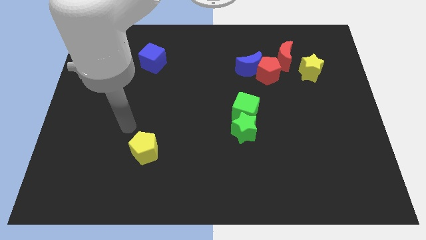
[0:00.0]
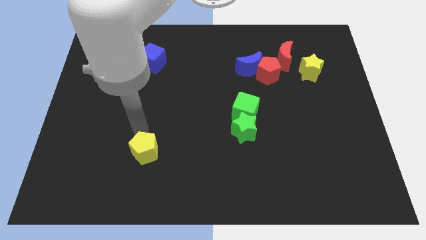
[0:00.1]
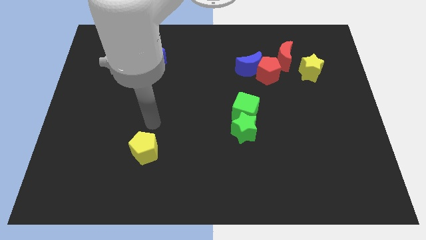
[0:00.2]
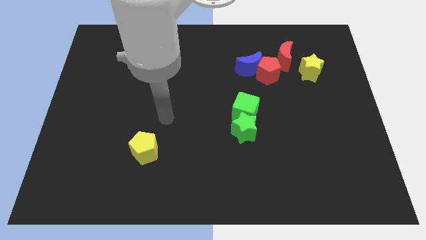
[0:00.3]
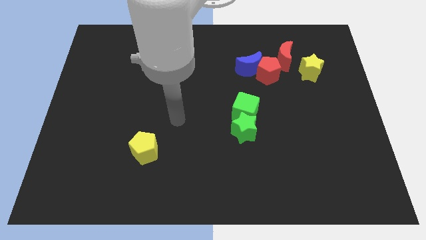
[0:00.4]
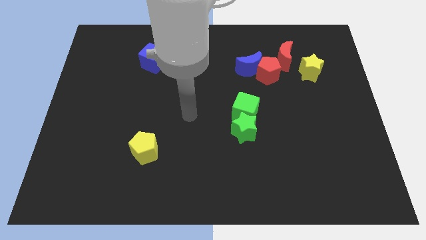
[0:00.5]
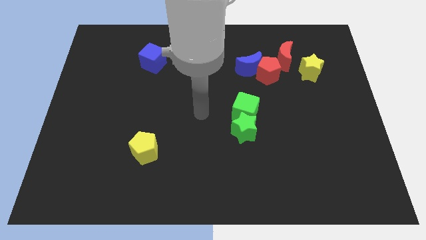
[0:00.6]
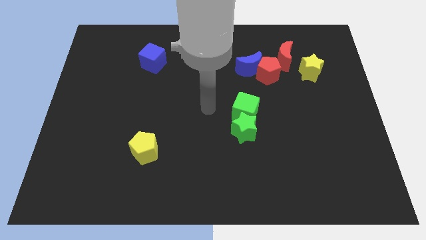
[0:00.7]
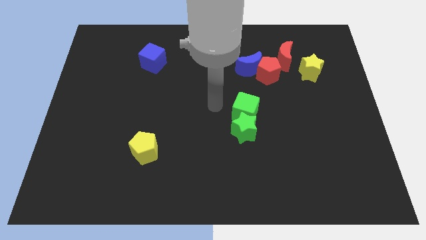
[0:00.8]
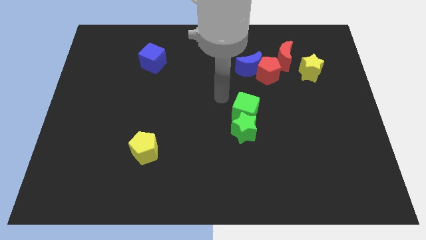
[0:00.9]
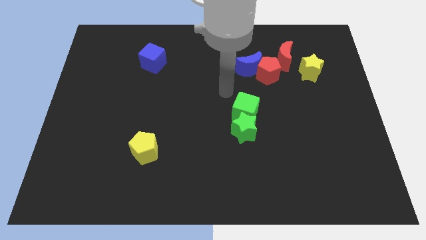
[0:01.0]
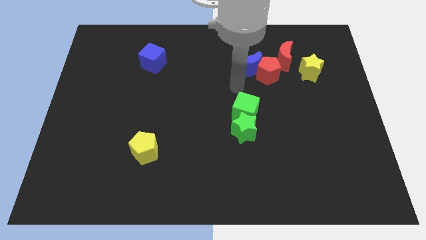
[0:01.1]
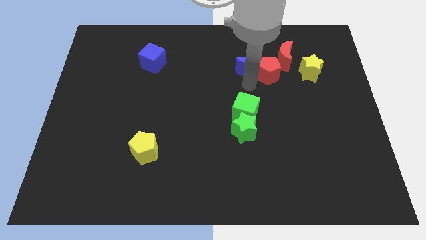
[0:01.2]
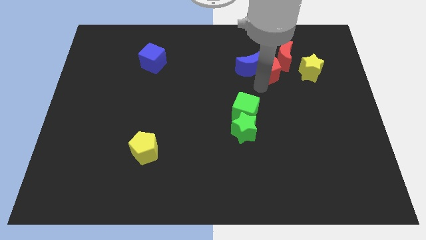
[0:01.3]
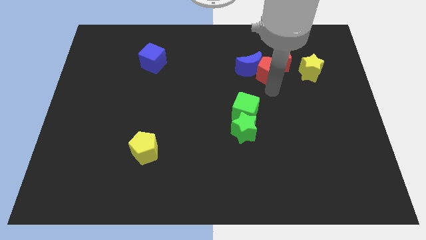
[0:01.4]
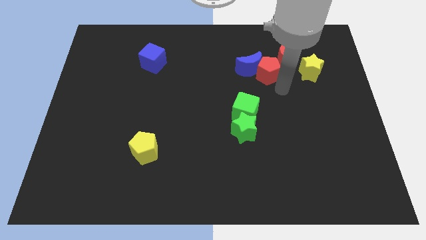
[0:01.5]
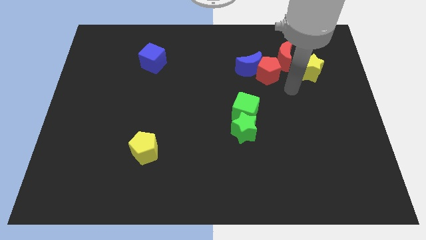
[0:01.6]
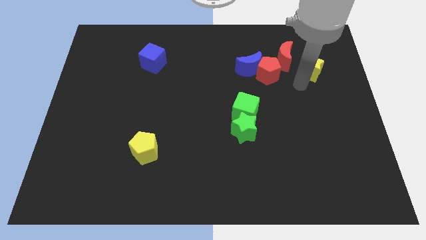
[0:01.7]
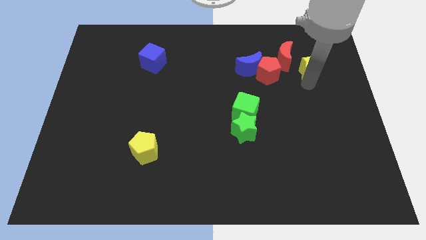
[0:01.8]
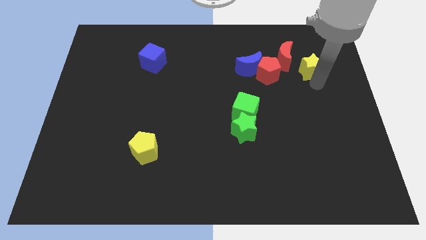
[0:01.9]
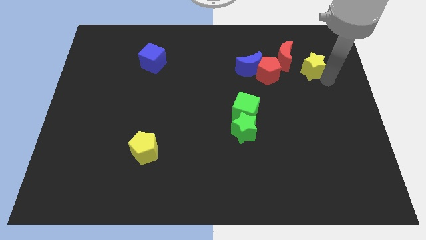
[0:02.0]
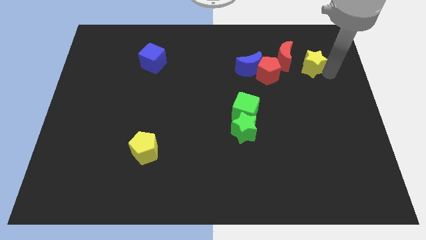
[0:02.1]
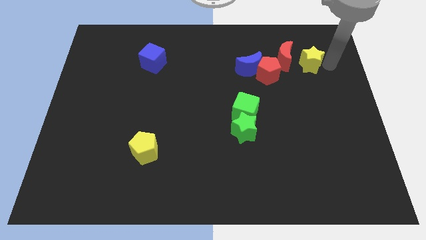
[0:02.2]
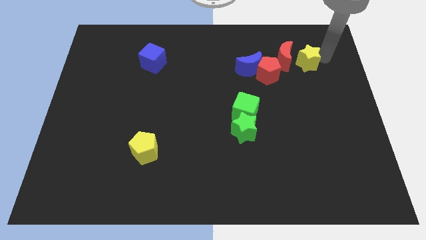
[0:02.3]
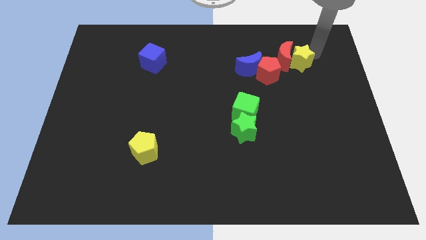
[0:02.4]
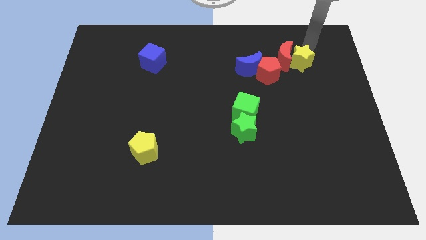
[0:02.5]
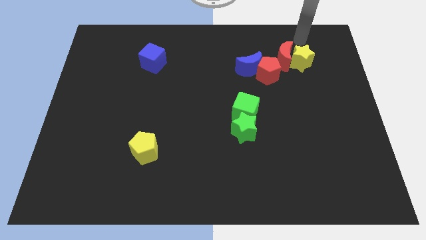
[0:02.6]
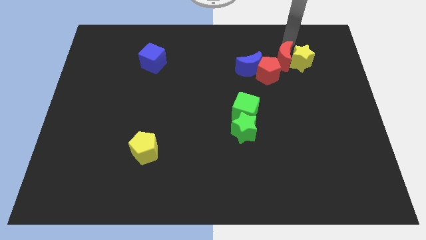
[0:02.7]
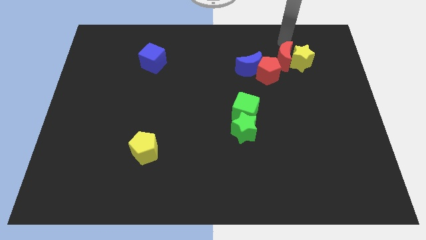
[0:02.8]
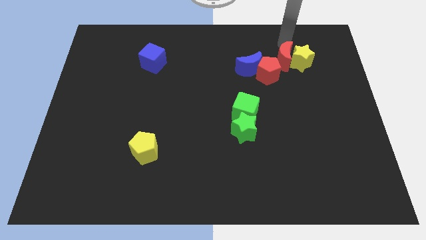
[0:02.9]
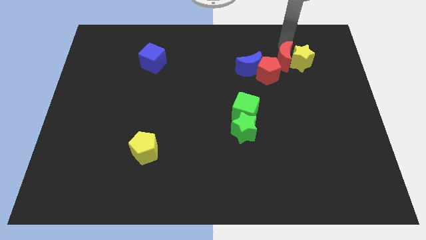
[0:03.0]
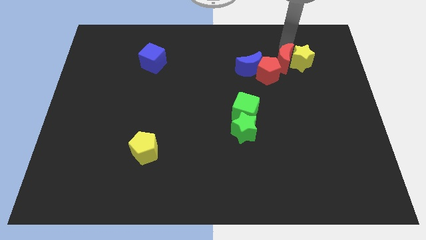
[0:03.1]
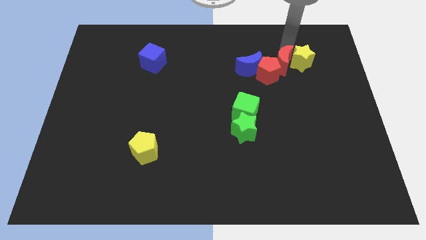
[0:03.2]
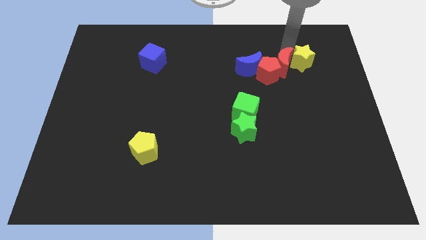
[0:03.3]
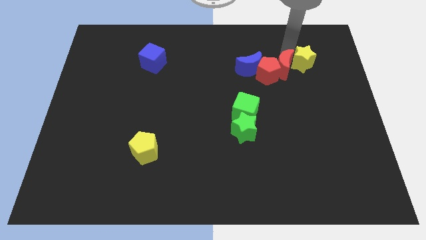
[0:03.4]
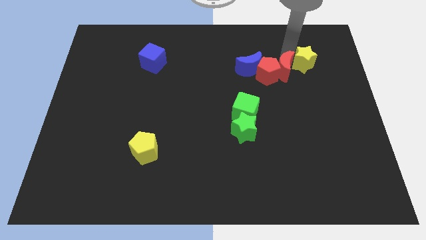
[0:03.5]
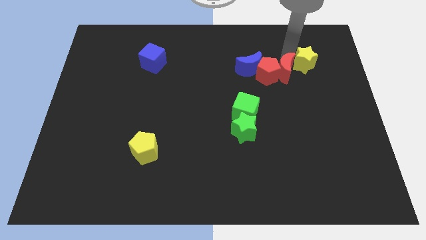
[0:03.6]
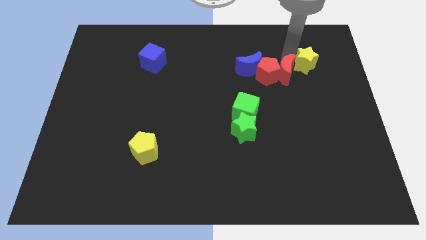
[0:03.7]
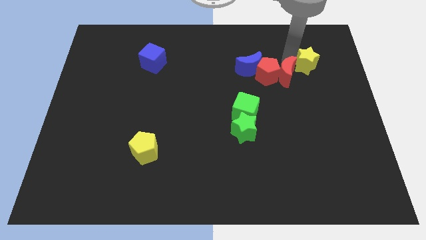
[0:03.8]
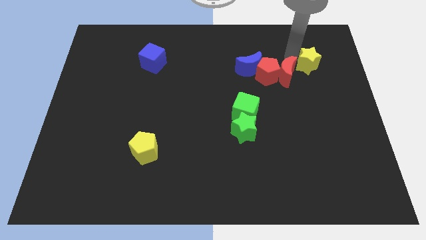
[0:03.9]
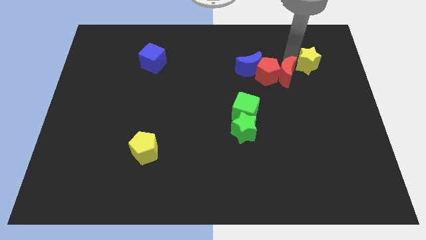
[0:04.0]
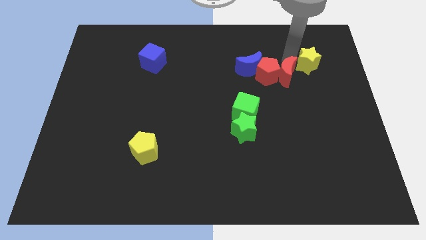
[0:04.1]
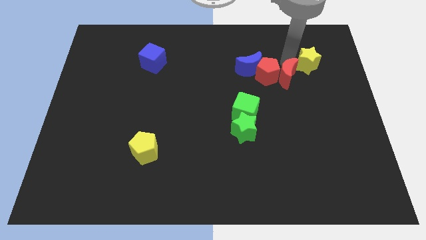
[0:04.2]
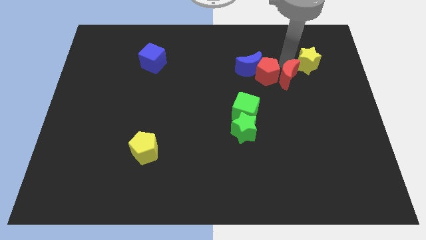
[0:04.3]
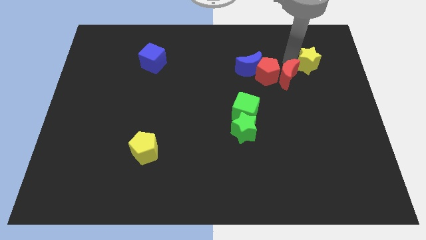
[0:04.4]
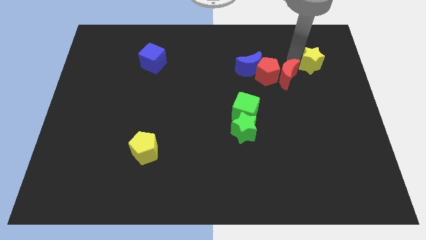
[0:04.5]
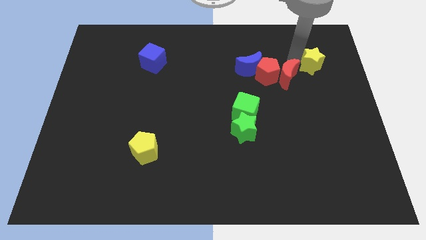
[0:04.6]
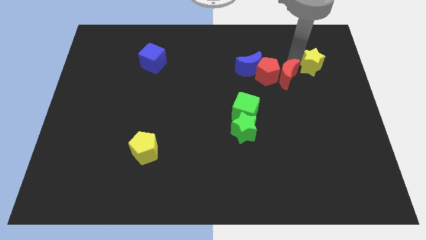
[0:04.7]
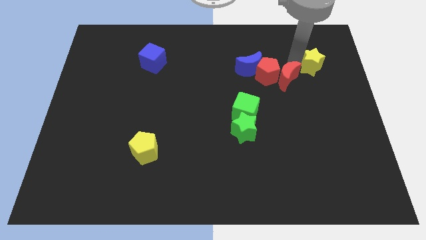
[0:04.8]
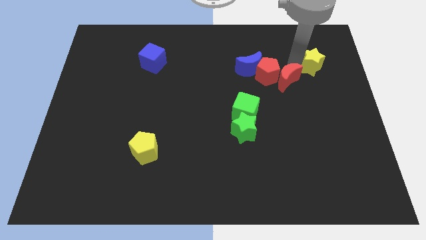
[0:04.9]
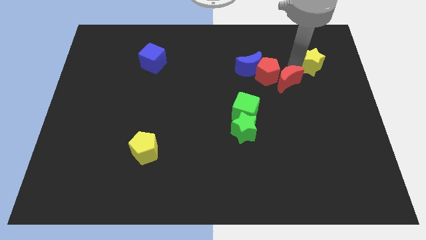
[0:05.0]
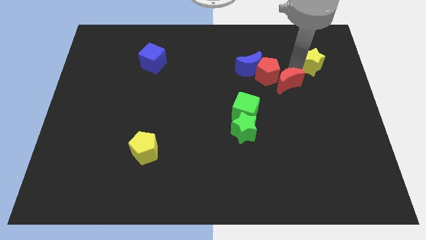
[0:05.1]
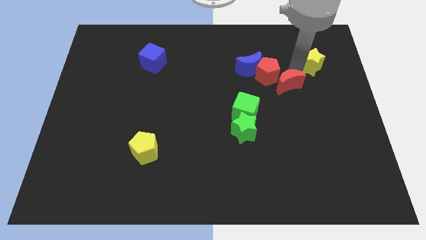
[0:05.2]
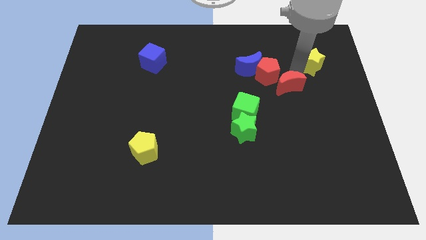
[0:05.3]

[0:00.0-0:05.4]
push the red moon to the bottom side of the red pentagon

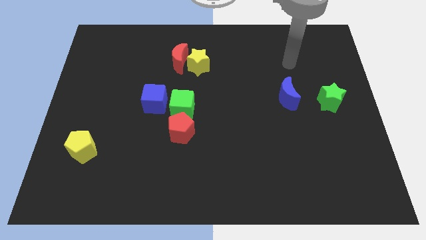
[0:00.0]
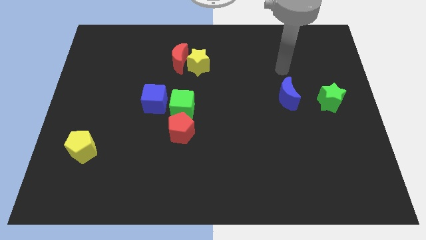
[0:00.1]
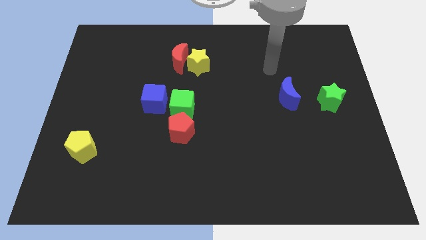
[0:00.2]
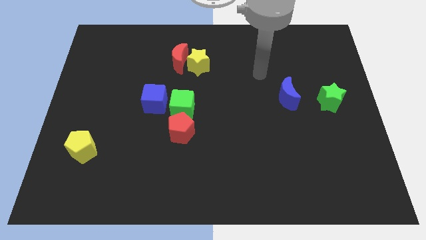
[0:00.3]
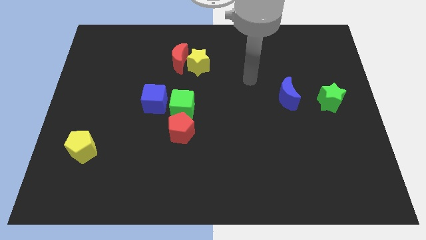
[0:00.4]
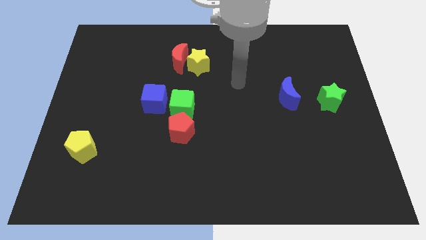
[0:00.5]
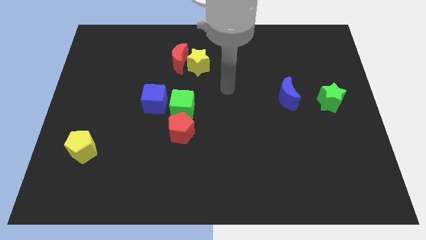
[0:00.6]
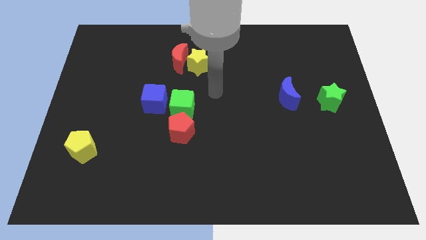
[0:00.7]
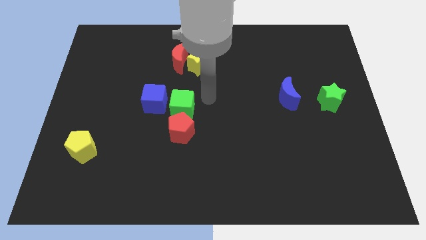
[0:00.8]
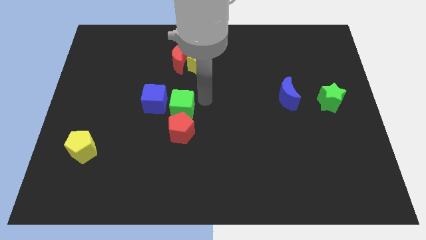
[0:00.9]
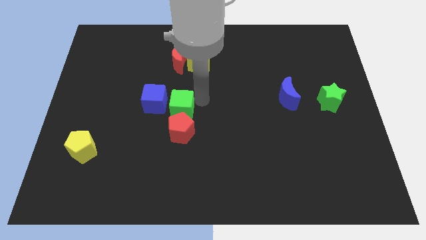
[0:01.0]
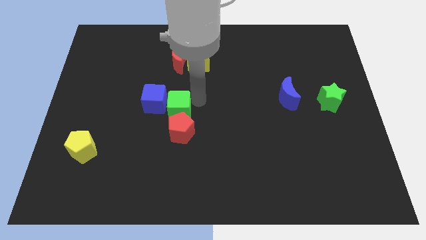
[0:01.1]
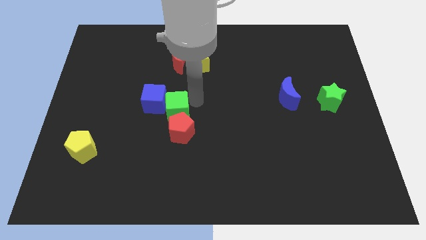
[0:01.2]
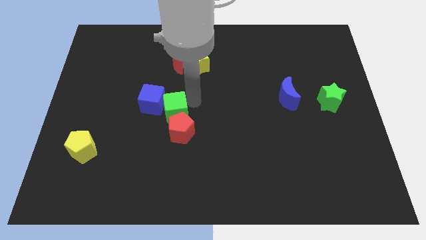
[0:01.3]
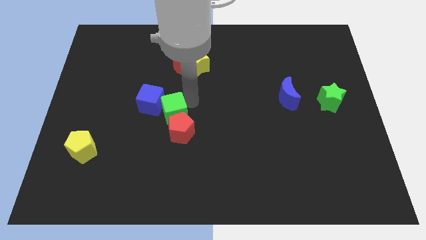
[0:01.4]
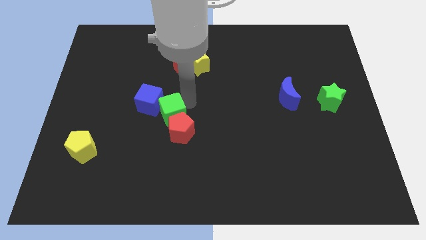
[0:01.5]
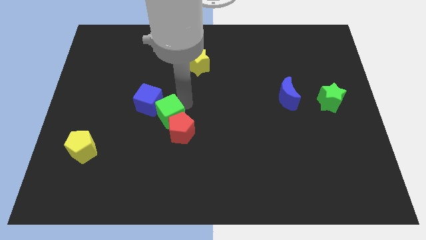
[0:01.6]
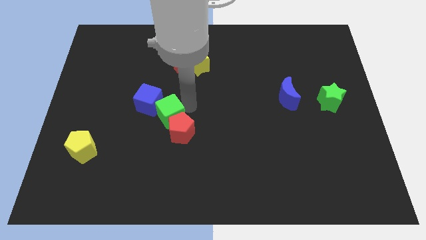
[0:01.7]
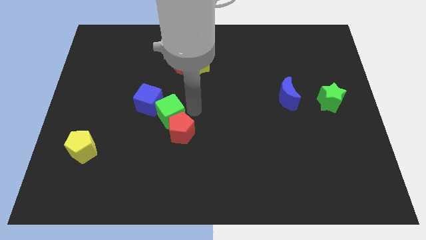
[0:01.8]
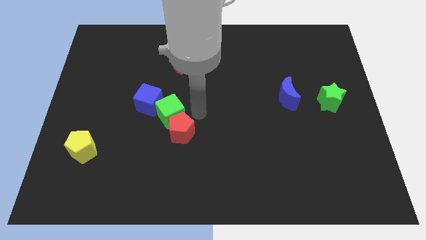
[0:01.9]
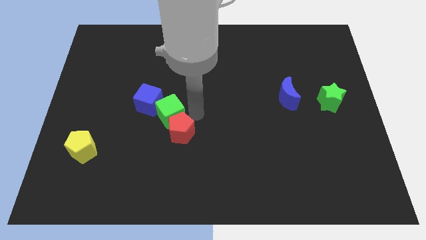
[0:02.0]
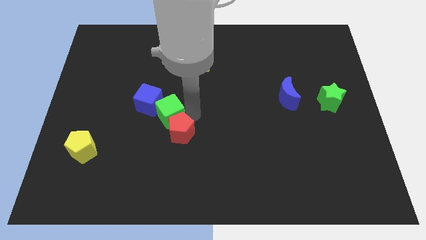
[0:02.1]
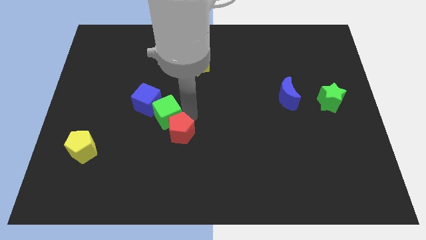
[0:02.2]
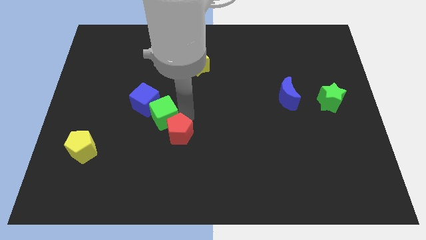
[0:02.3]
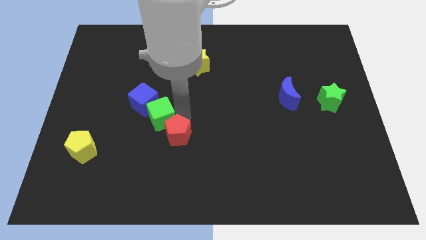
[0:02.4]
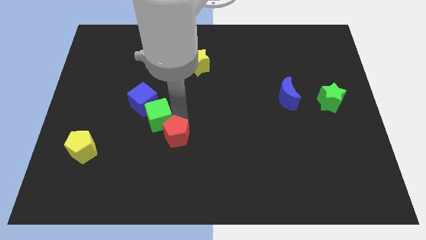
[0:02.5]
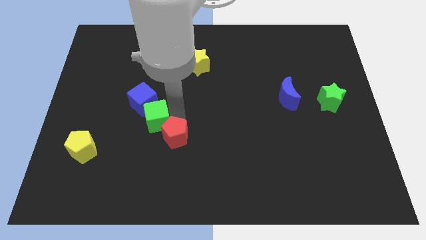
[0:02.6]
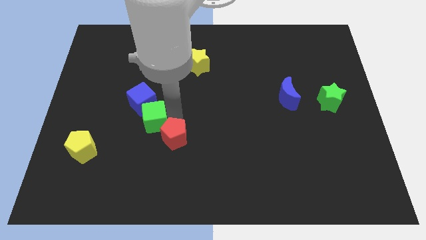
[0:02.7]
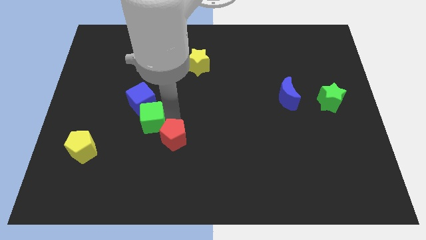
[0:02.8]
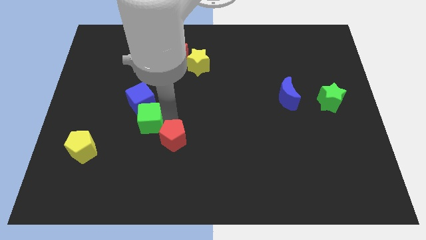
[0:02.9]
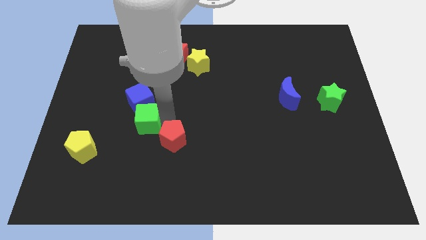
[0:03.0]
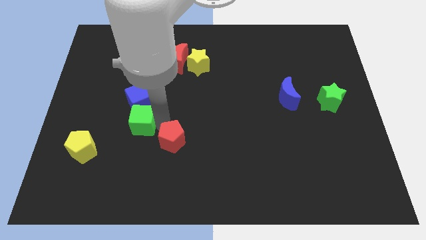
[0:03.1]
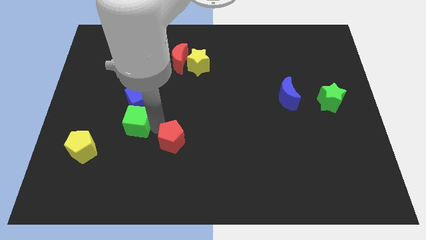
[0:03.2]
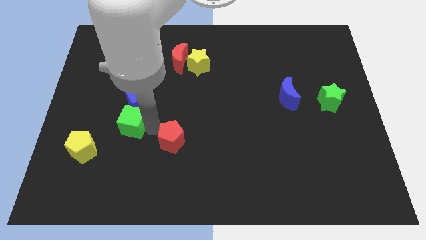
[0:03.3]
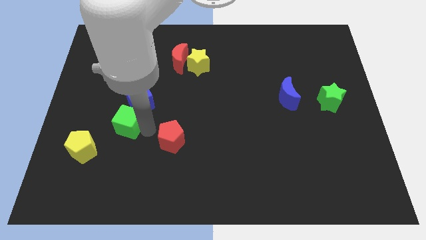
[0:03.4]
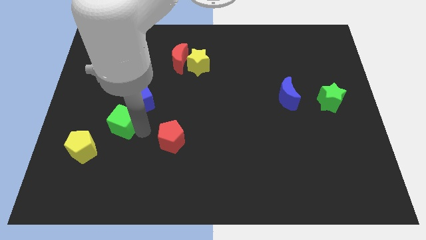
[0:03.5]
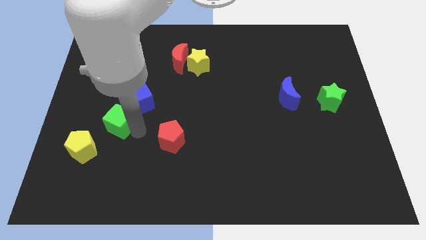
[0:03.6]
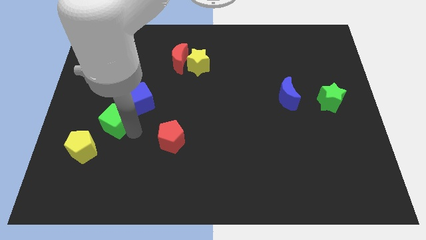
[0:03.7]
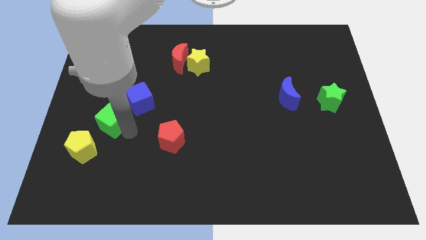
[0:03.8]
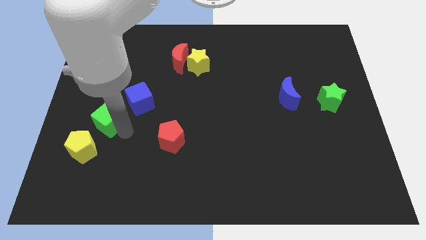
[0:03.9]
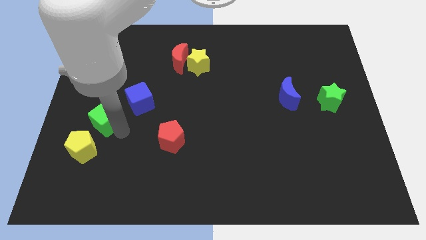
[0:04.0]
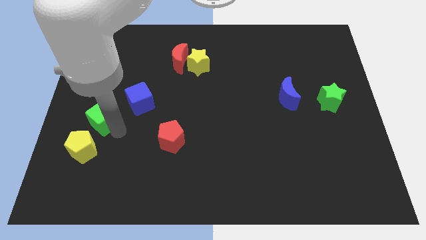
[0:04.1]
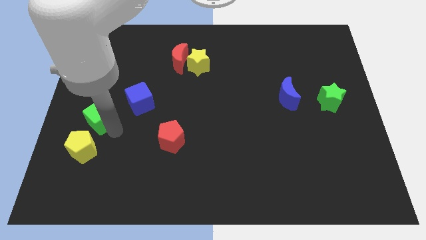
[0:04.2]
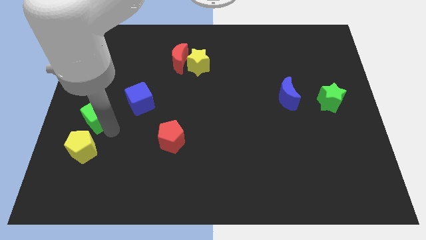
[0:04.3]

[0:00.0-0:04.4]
move the green cube just left of the blue cube
